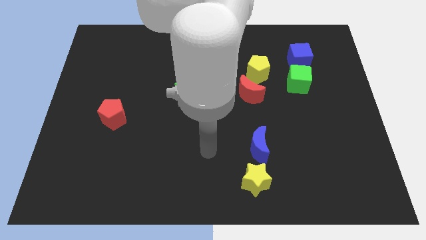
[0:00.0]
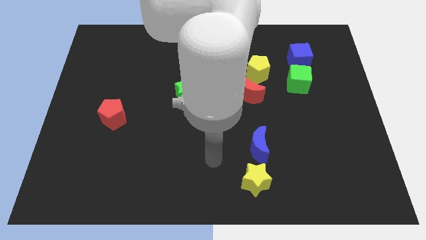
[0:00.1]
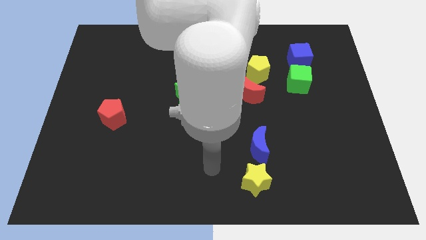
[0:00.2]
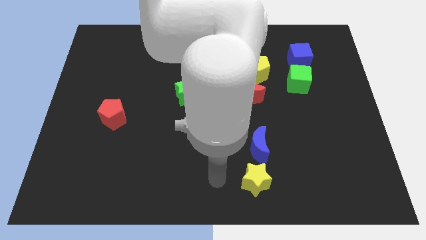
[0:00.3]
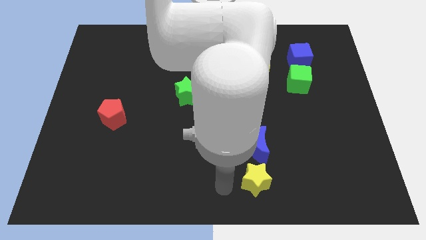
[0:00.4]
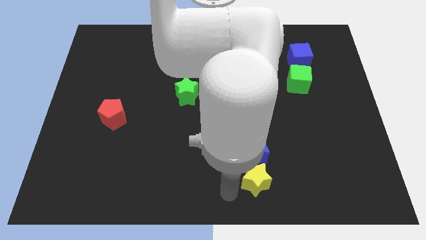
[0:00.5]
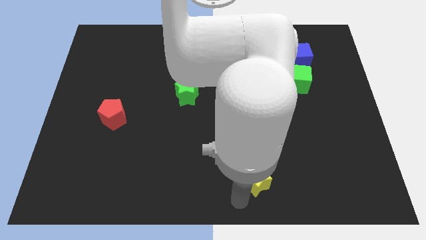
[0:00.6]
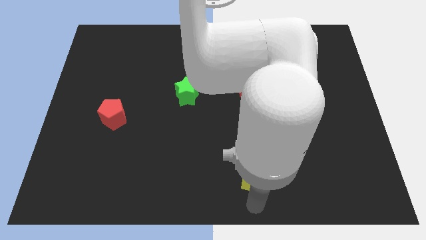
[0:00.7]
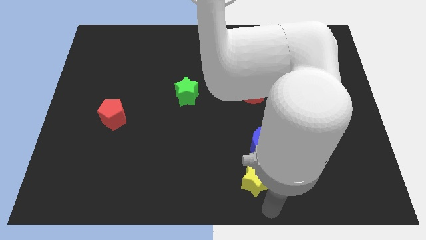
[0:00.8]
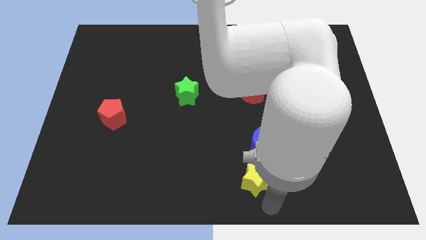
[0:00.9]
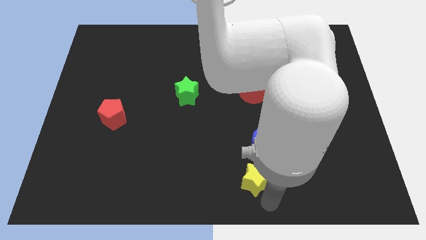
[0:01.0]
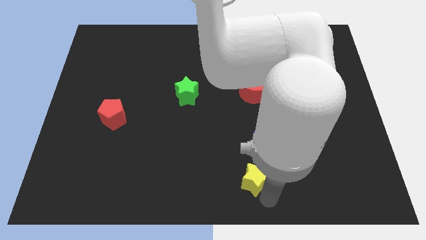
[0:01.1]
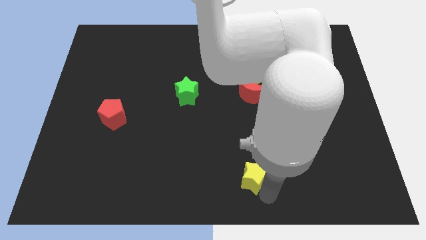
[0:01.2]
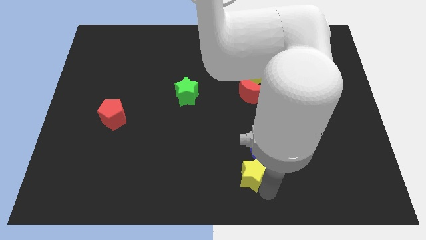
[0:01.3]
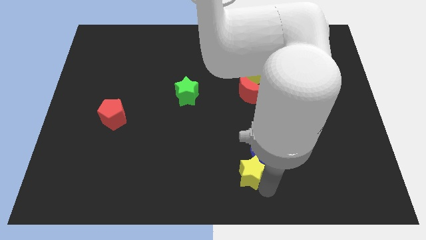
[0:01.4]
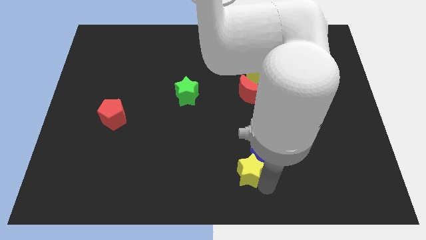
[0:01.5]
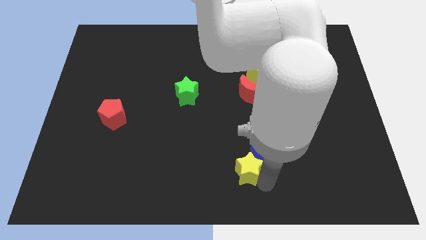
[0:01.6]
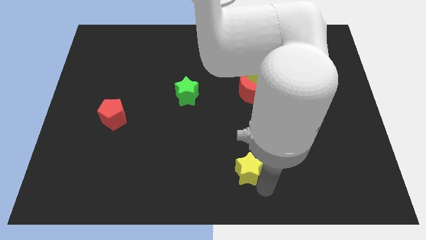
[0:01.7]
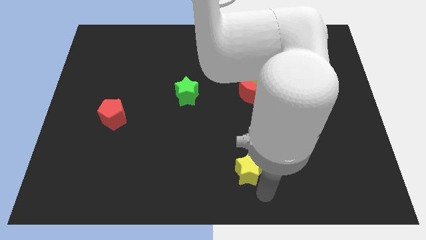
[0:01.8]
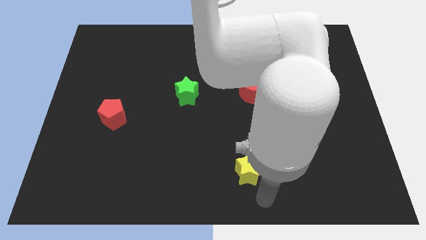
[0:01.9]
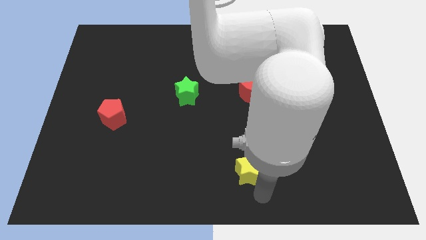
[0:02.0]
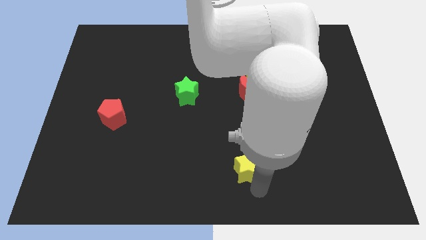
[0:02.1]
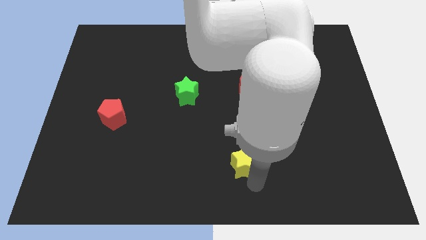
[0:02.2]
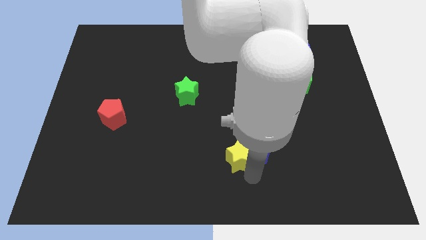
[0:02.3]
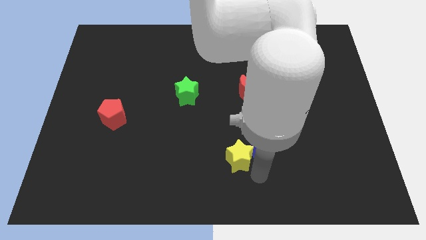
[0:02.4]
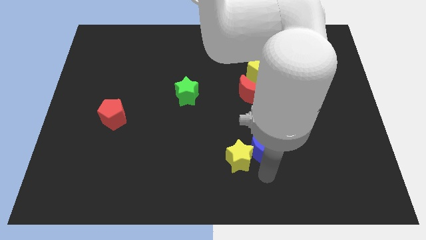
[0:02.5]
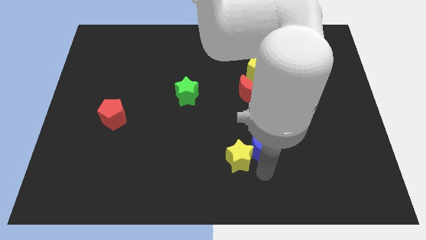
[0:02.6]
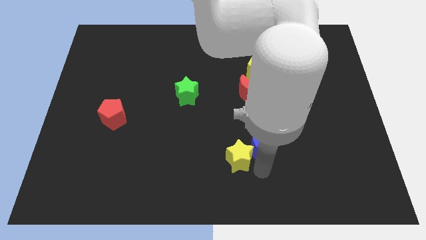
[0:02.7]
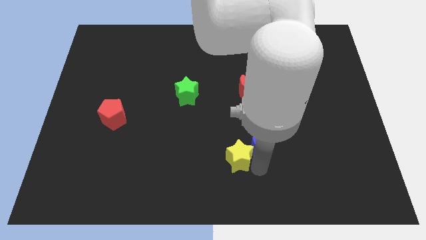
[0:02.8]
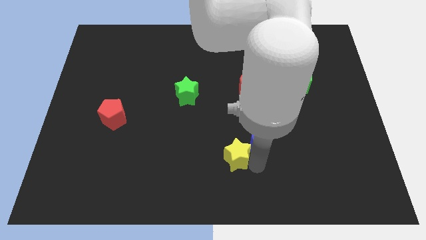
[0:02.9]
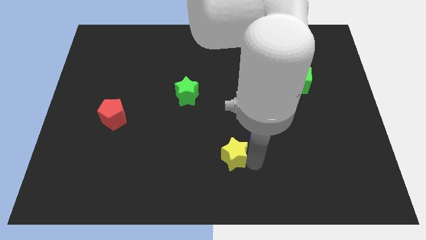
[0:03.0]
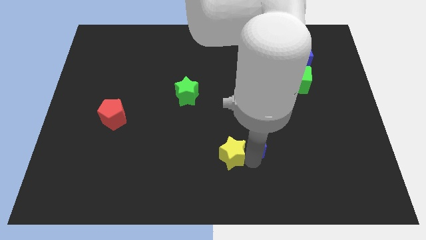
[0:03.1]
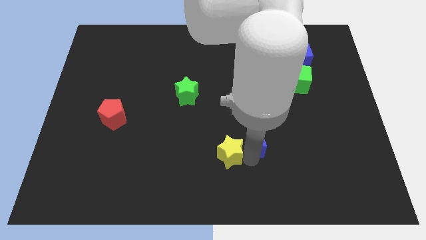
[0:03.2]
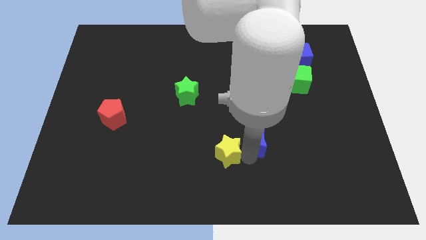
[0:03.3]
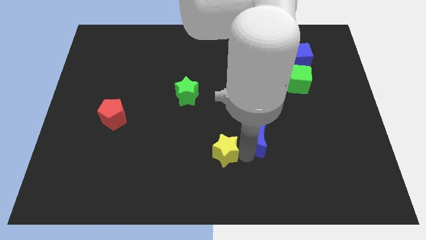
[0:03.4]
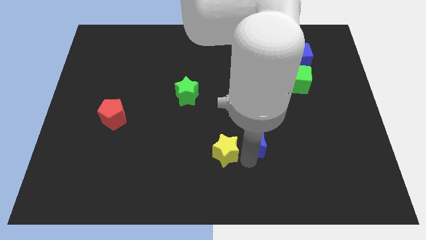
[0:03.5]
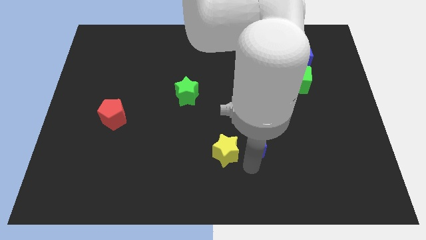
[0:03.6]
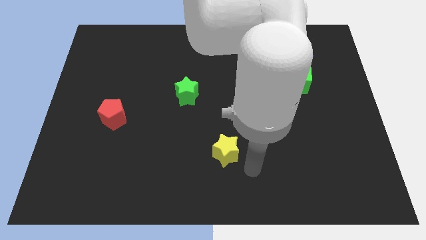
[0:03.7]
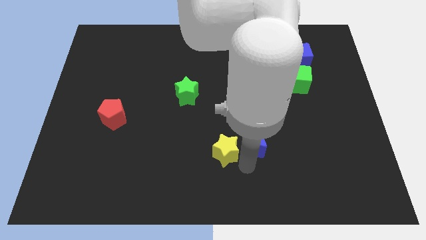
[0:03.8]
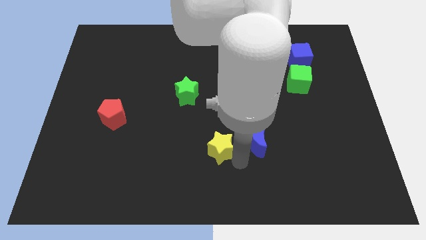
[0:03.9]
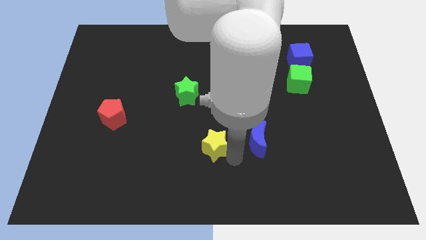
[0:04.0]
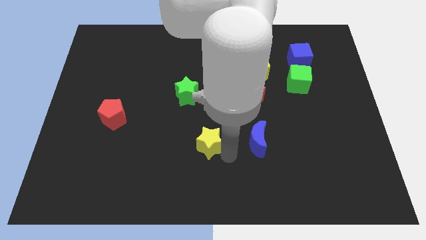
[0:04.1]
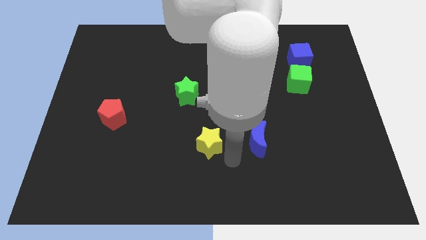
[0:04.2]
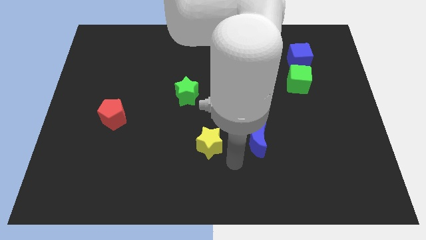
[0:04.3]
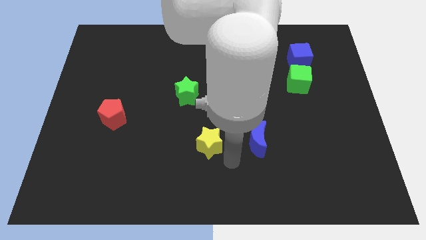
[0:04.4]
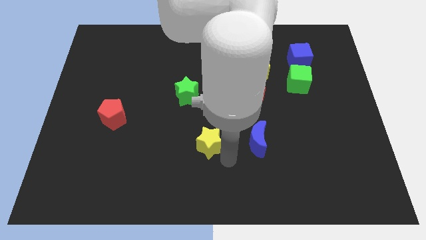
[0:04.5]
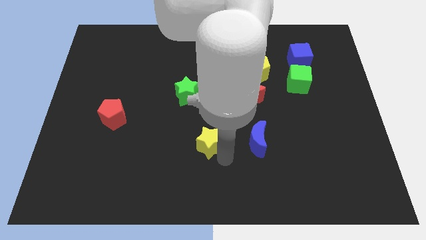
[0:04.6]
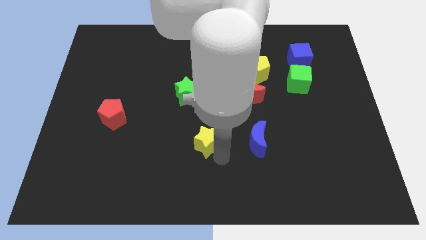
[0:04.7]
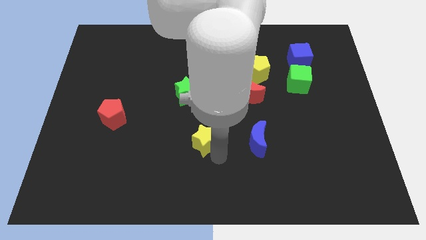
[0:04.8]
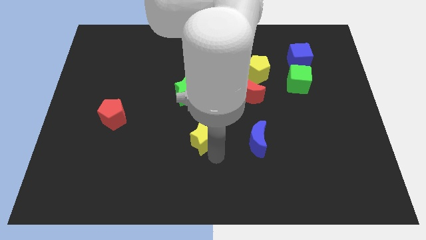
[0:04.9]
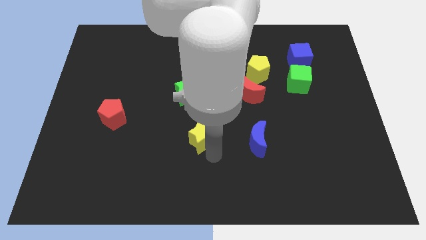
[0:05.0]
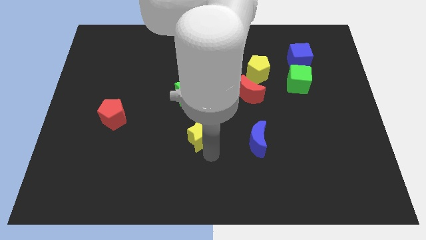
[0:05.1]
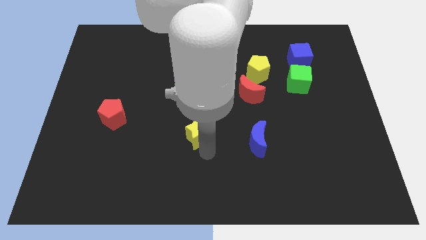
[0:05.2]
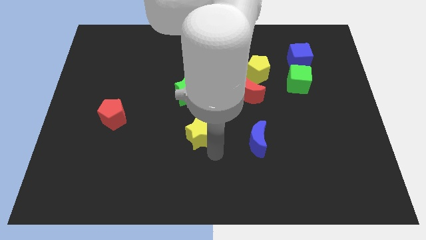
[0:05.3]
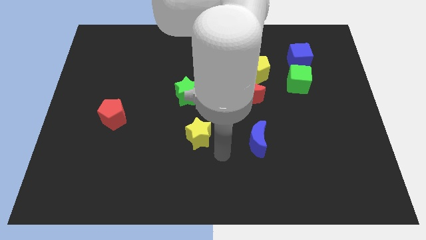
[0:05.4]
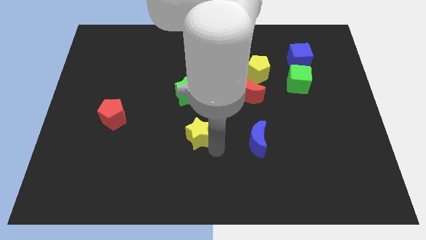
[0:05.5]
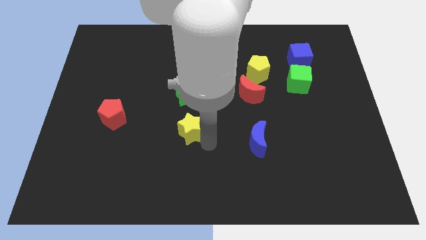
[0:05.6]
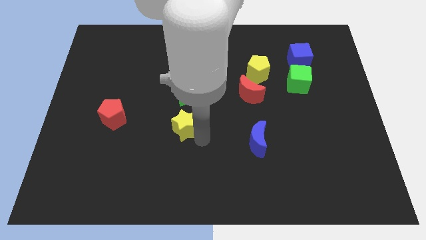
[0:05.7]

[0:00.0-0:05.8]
push the yellow star diagonally upwards and left

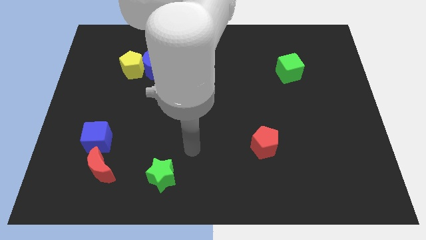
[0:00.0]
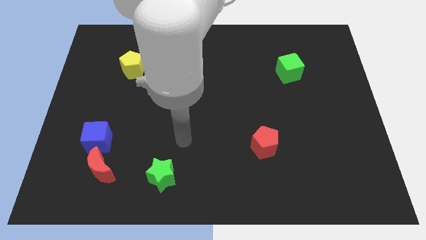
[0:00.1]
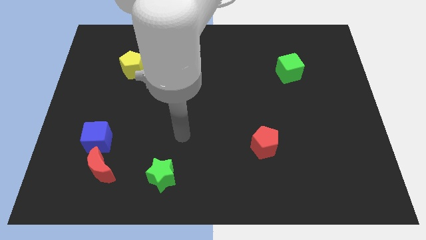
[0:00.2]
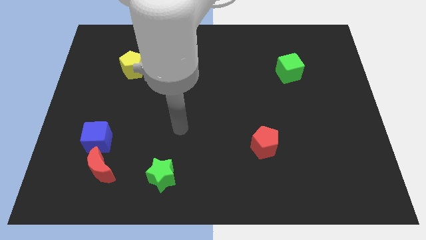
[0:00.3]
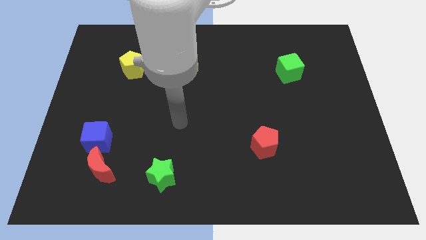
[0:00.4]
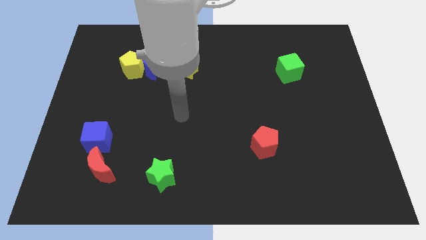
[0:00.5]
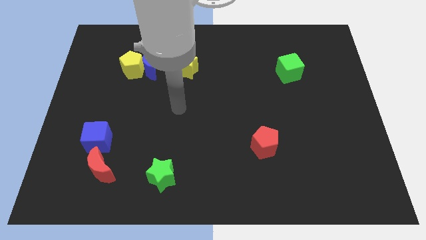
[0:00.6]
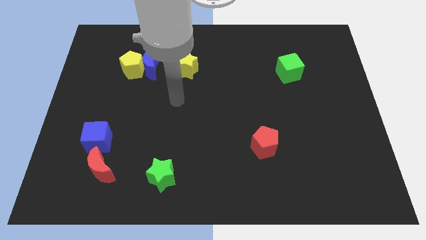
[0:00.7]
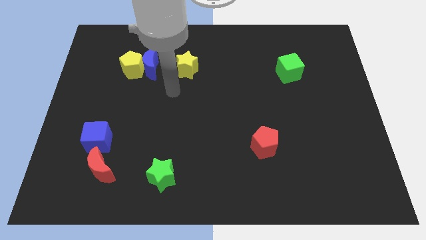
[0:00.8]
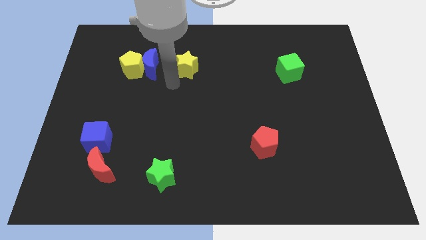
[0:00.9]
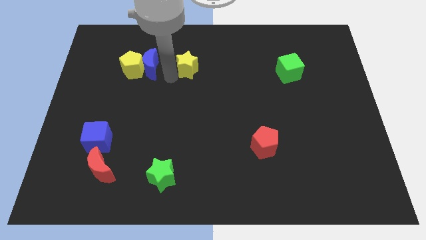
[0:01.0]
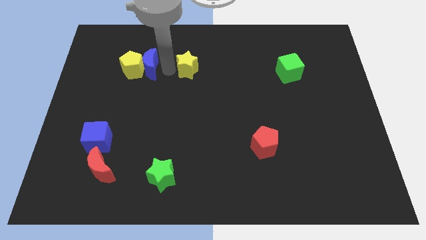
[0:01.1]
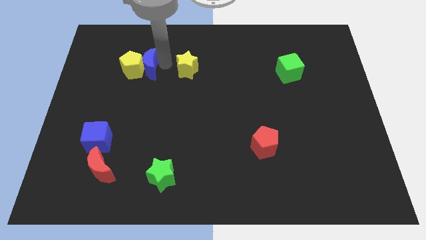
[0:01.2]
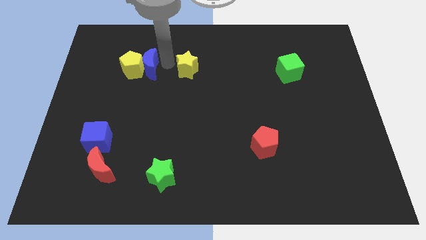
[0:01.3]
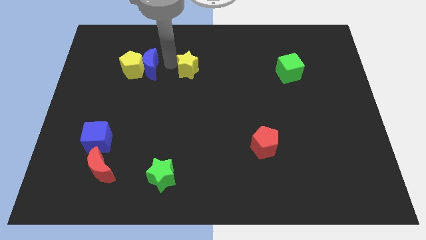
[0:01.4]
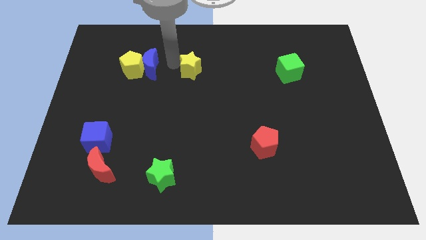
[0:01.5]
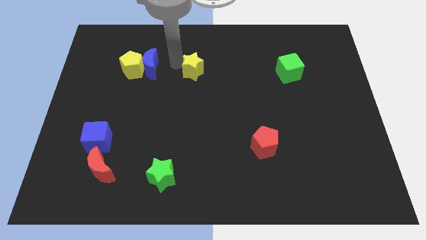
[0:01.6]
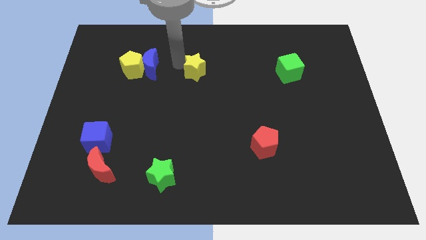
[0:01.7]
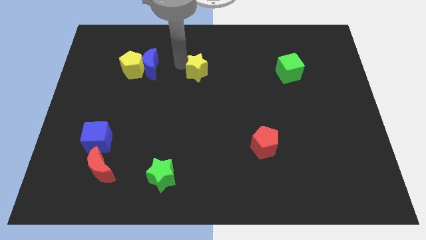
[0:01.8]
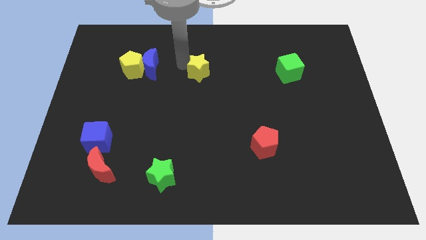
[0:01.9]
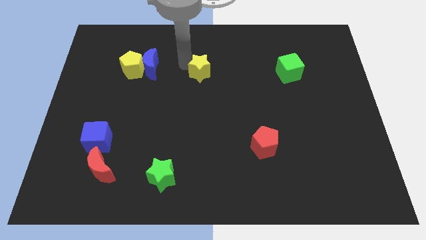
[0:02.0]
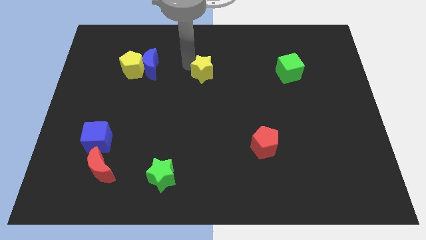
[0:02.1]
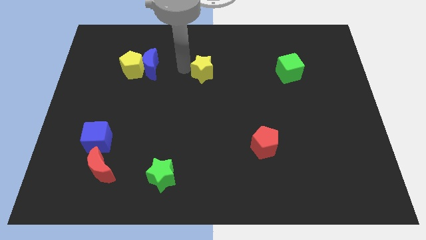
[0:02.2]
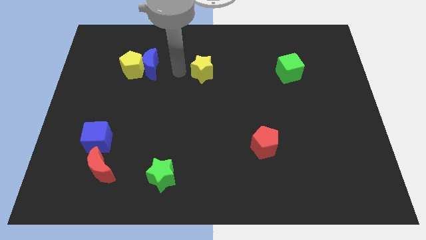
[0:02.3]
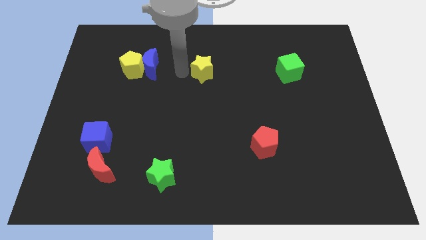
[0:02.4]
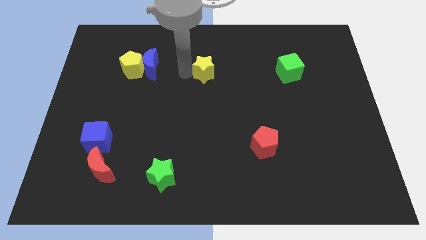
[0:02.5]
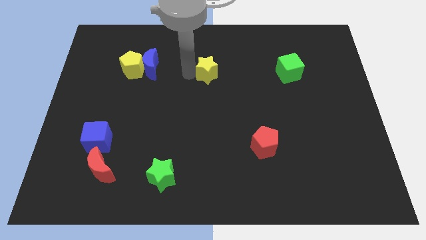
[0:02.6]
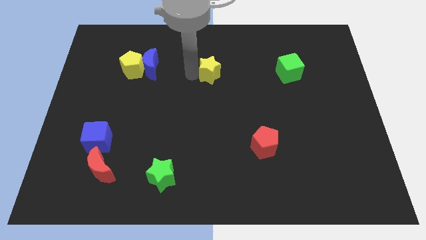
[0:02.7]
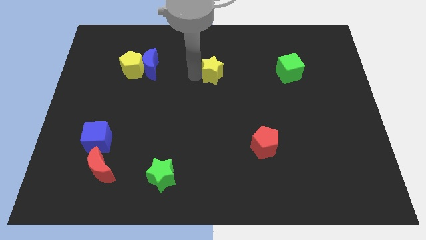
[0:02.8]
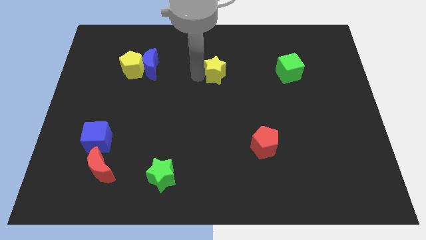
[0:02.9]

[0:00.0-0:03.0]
slightly push the yellow star to the right
